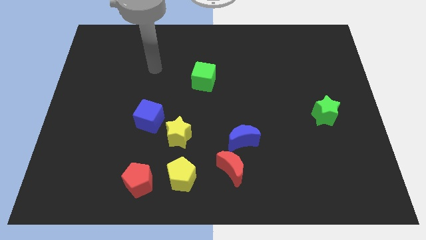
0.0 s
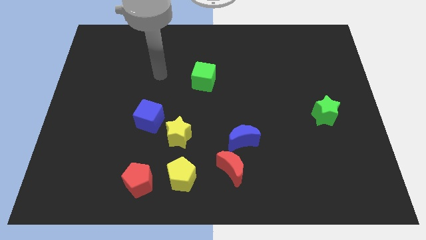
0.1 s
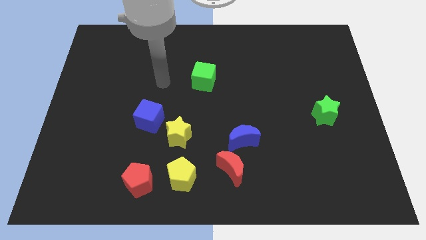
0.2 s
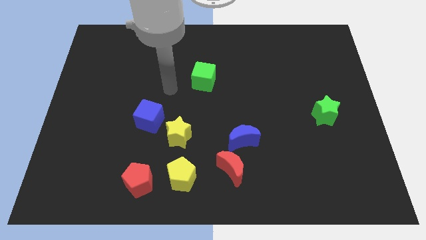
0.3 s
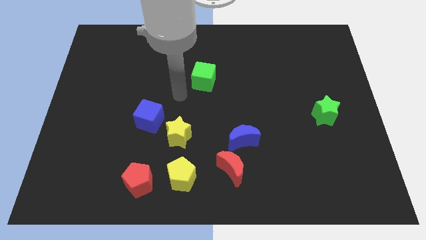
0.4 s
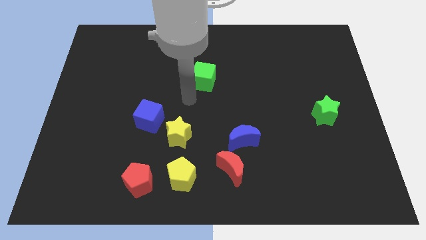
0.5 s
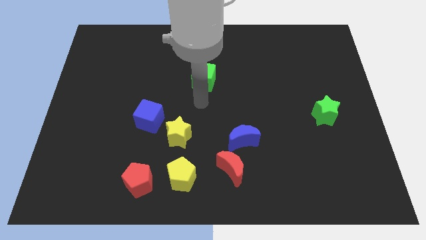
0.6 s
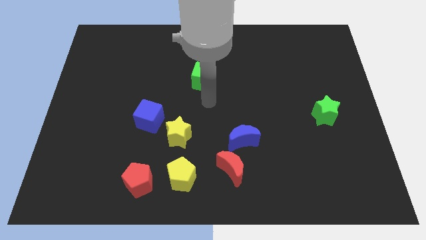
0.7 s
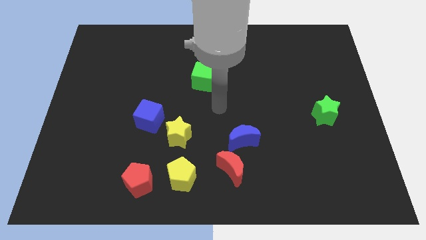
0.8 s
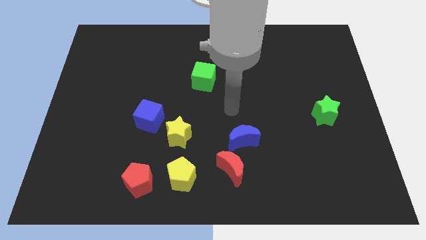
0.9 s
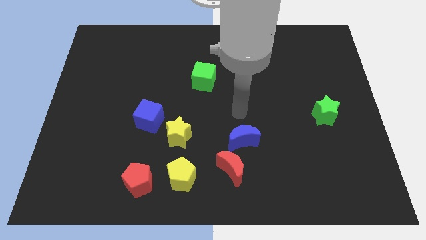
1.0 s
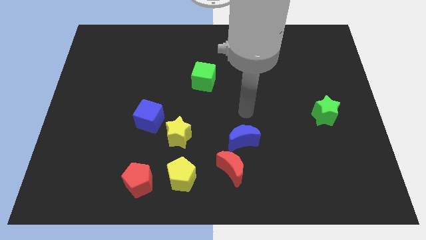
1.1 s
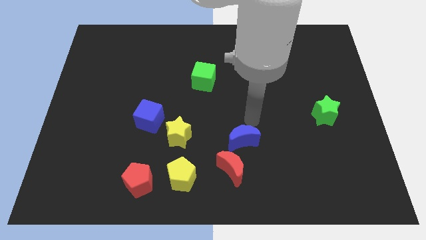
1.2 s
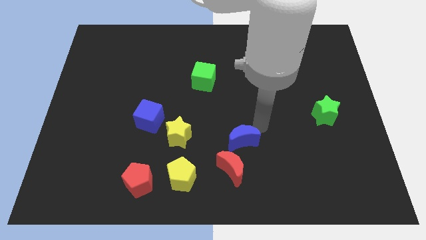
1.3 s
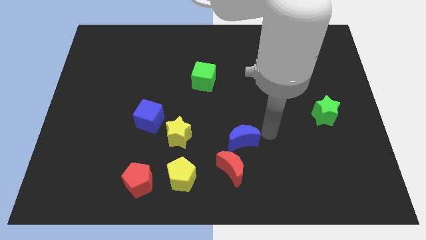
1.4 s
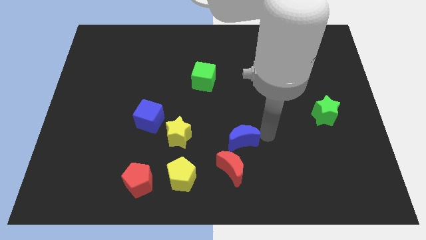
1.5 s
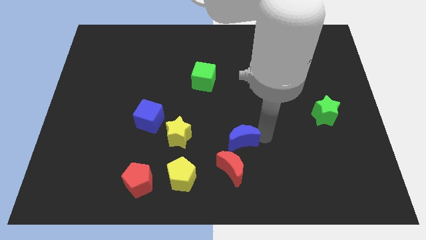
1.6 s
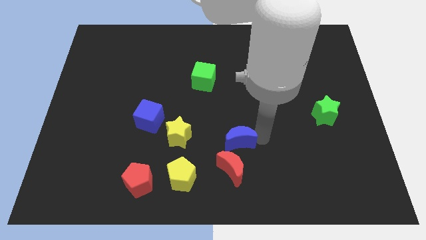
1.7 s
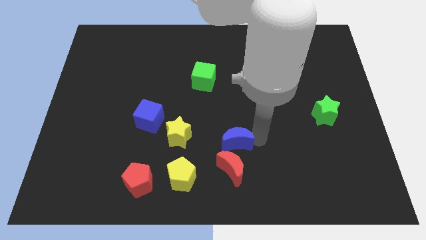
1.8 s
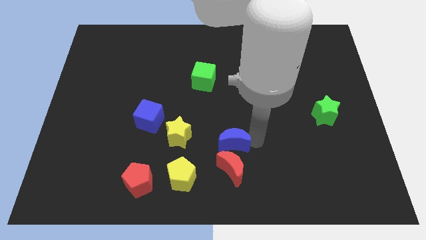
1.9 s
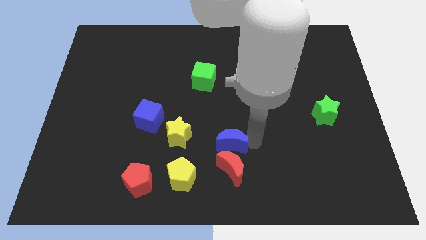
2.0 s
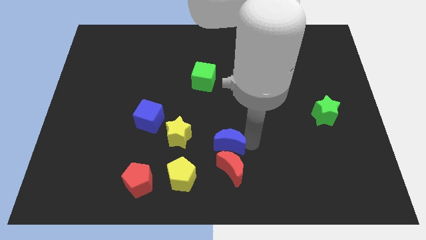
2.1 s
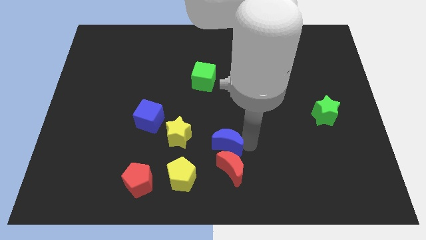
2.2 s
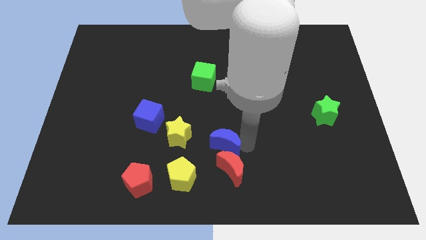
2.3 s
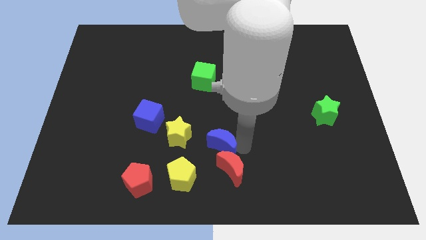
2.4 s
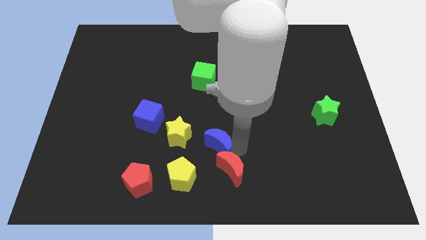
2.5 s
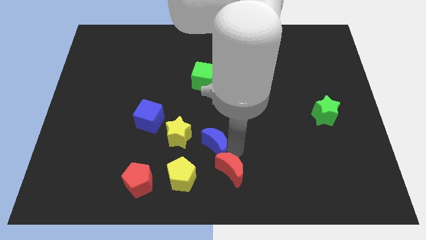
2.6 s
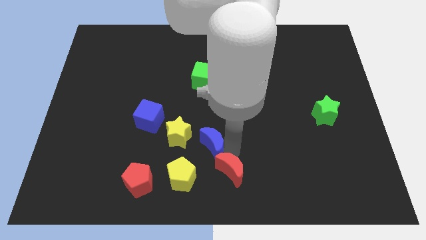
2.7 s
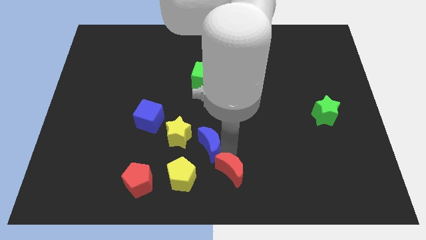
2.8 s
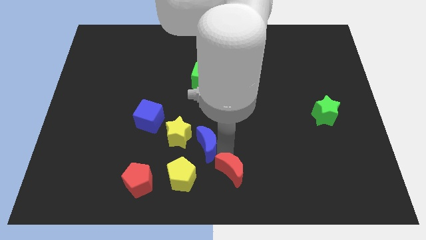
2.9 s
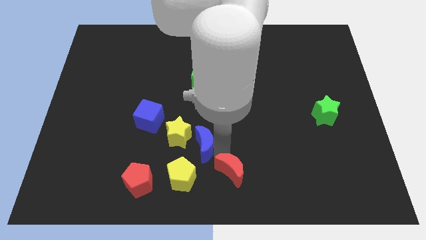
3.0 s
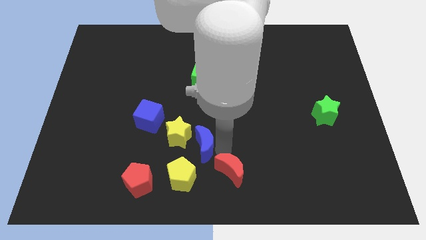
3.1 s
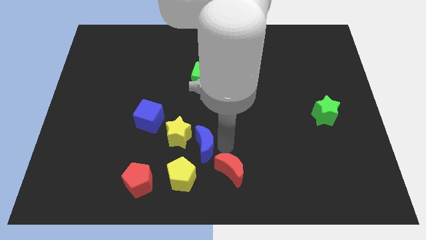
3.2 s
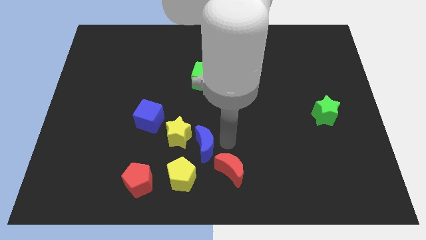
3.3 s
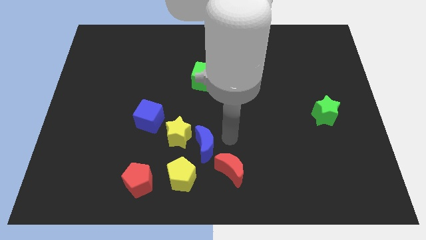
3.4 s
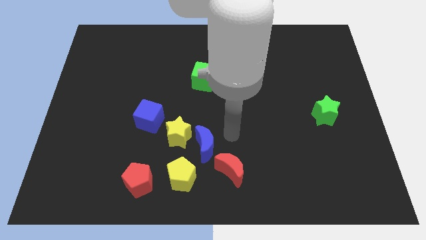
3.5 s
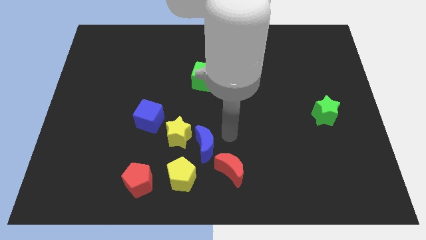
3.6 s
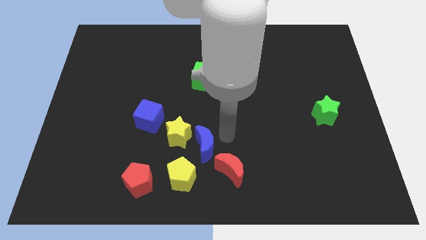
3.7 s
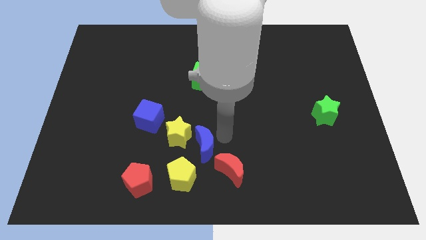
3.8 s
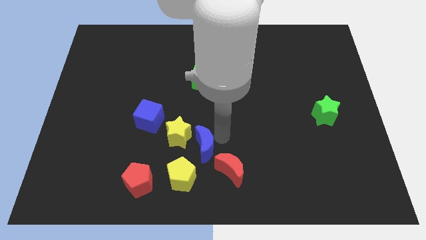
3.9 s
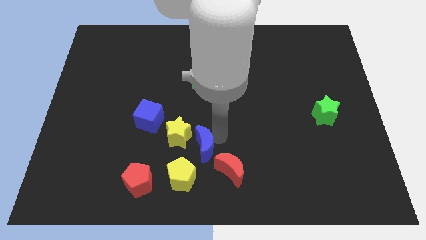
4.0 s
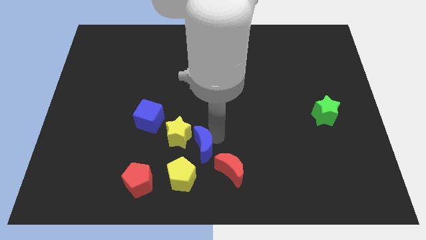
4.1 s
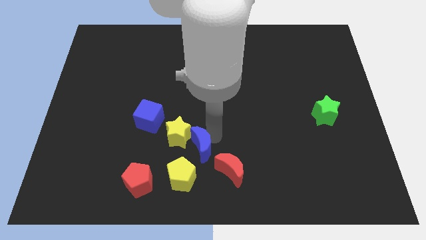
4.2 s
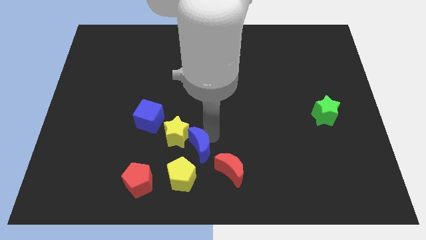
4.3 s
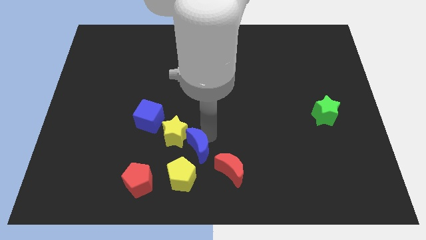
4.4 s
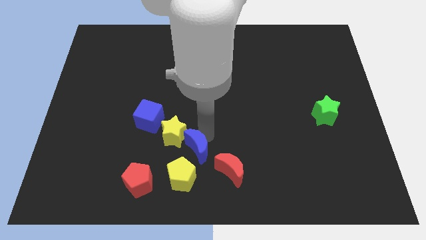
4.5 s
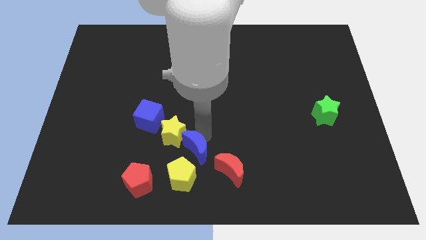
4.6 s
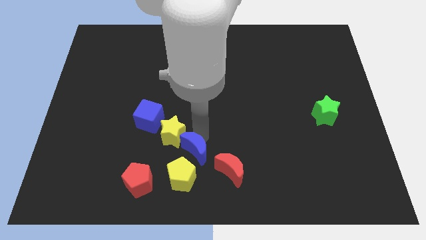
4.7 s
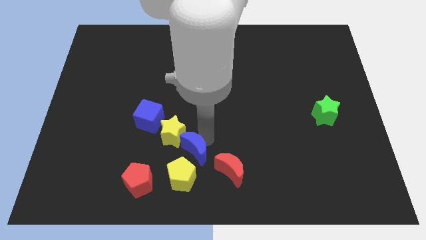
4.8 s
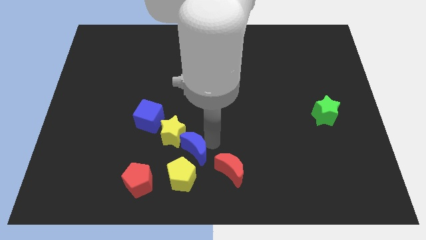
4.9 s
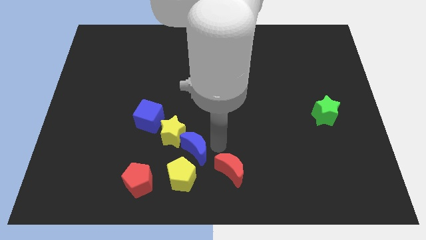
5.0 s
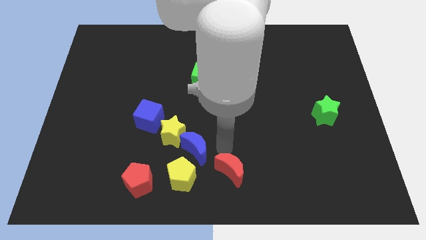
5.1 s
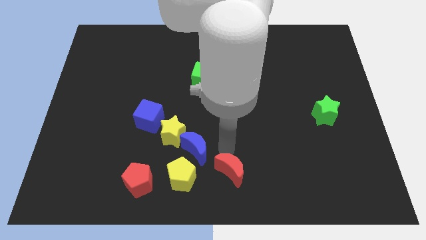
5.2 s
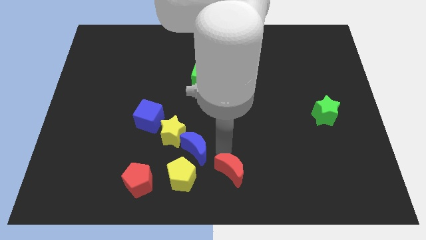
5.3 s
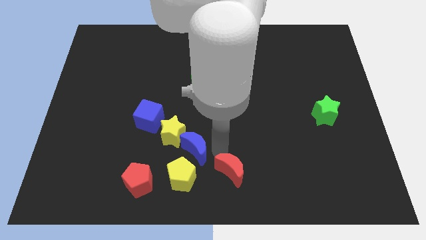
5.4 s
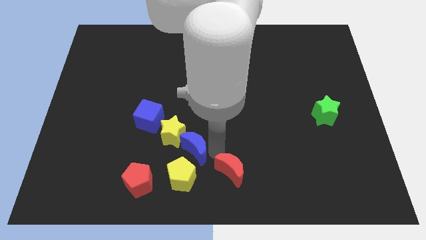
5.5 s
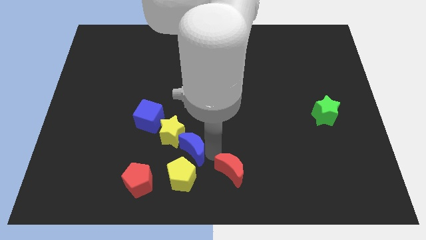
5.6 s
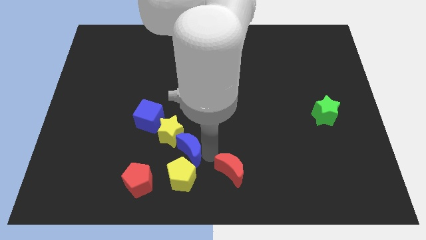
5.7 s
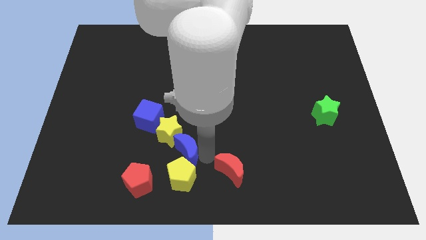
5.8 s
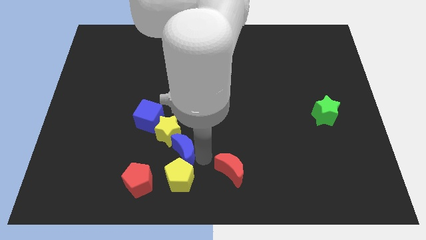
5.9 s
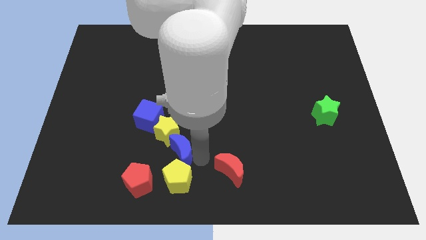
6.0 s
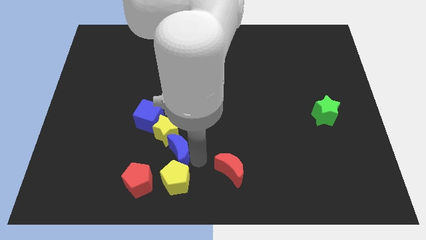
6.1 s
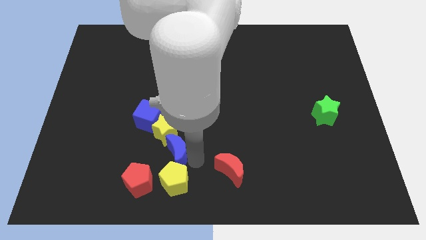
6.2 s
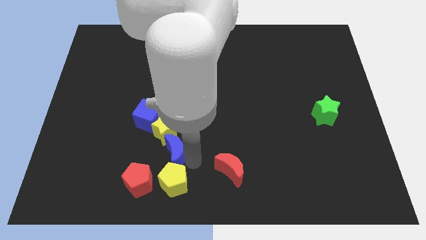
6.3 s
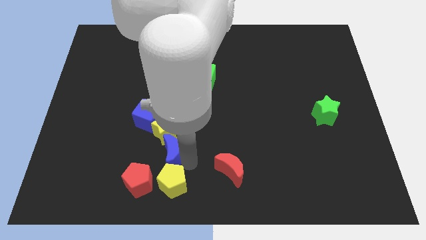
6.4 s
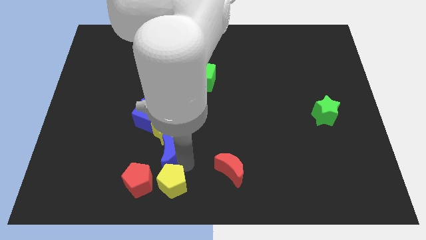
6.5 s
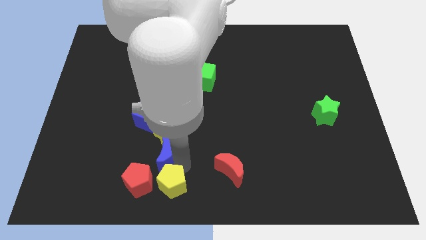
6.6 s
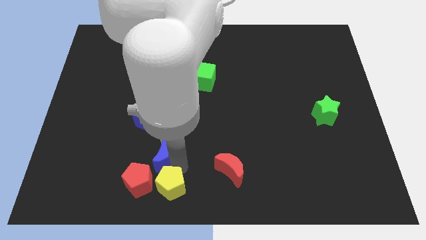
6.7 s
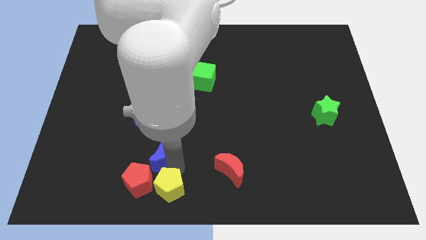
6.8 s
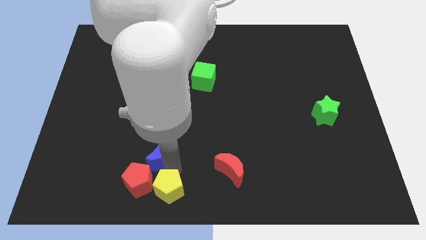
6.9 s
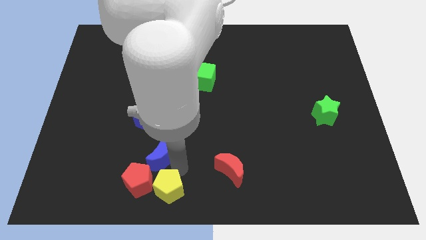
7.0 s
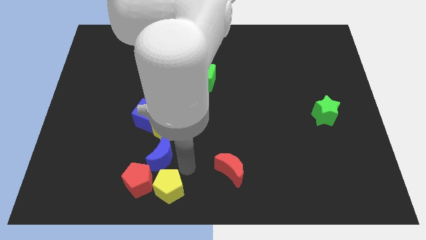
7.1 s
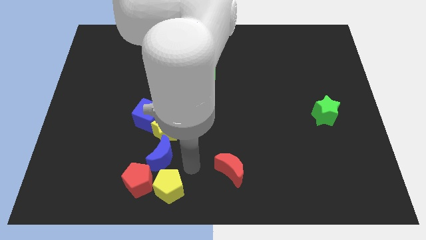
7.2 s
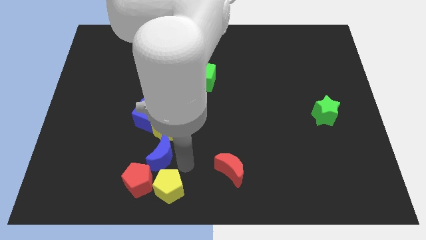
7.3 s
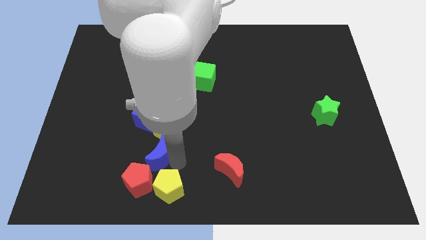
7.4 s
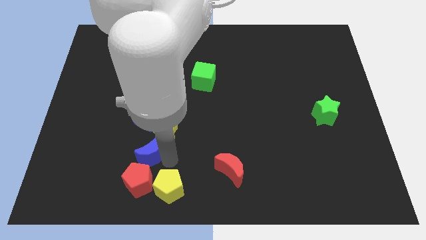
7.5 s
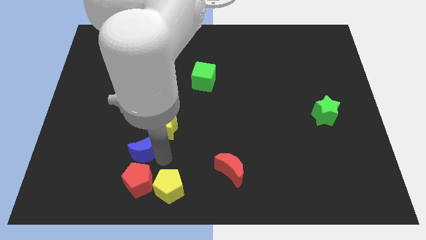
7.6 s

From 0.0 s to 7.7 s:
slide the blue moon left

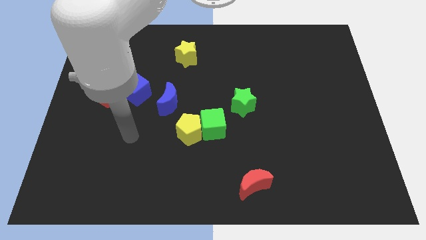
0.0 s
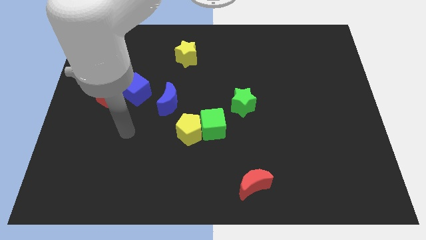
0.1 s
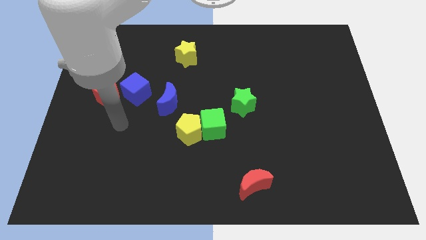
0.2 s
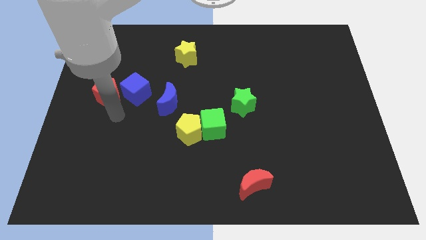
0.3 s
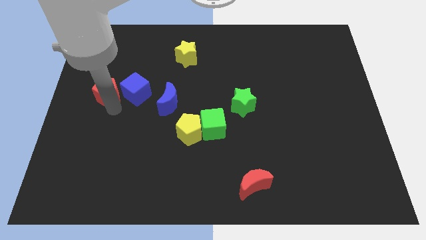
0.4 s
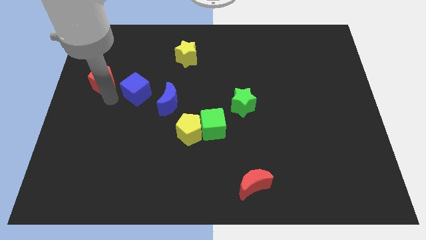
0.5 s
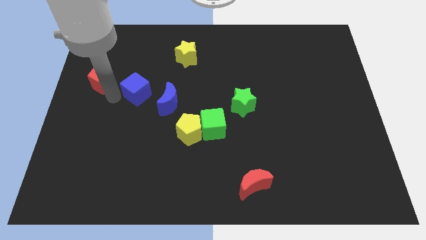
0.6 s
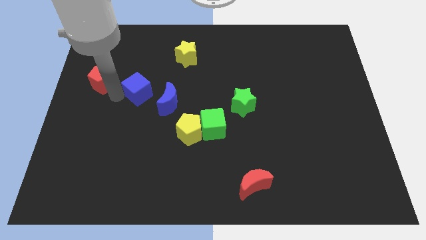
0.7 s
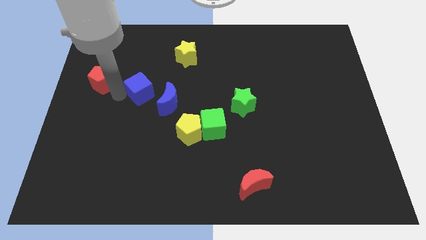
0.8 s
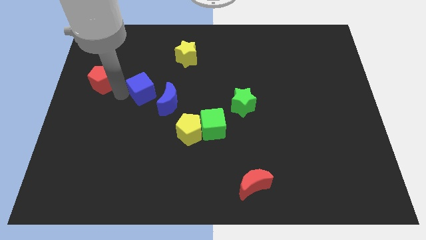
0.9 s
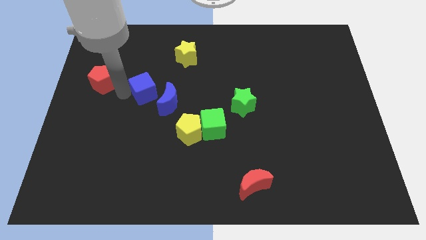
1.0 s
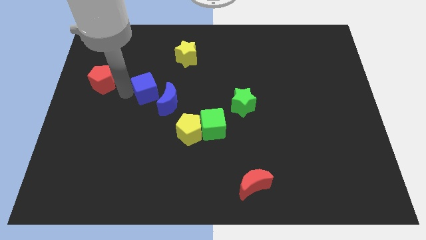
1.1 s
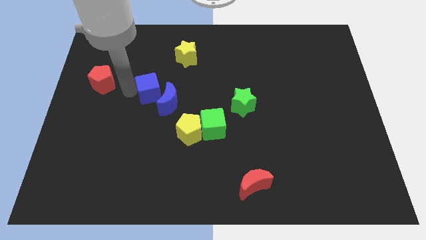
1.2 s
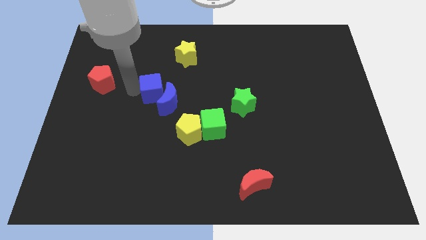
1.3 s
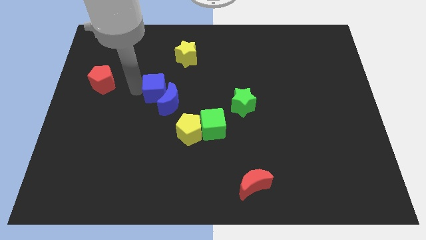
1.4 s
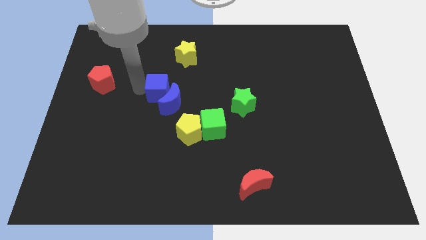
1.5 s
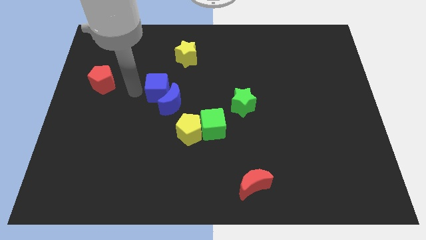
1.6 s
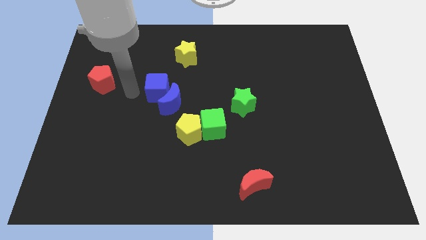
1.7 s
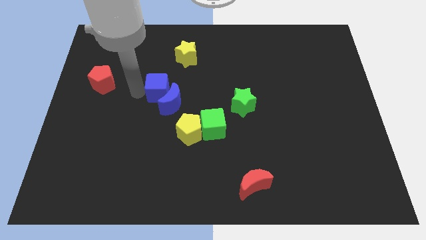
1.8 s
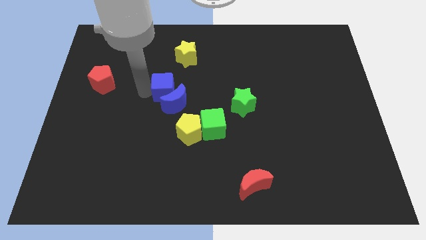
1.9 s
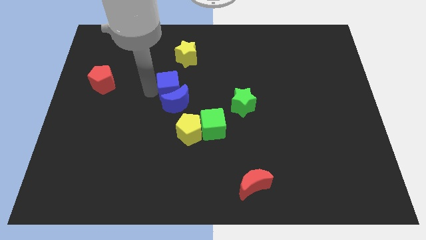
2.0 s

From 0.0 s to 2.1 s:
slide the blue cube a little bit right
